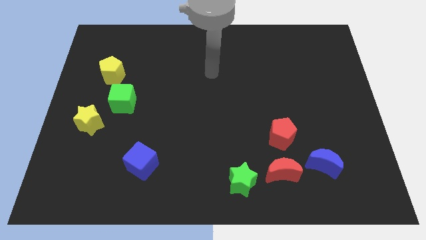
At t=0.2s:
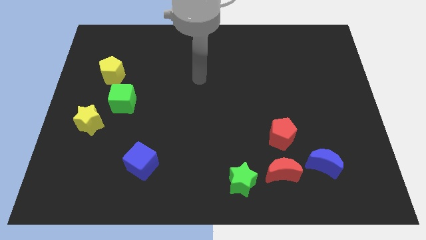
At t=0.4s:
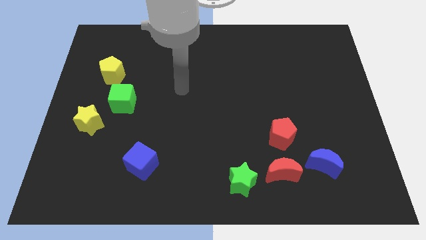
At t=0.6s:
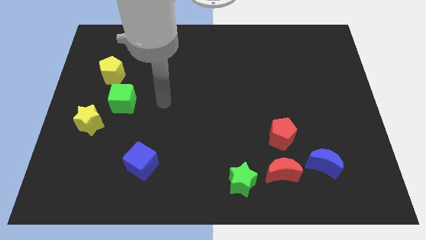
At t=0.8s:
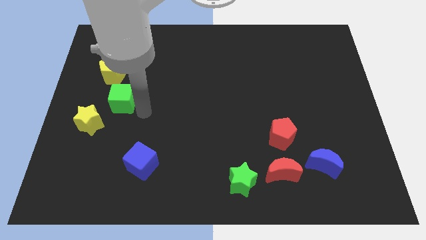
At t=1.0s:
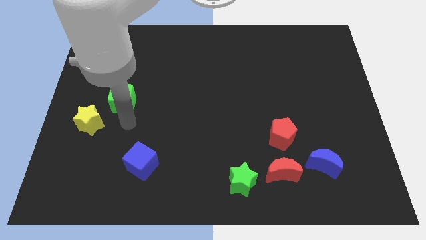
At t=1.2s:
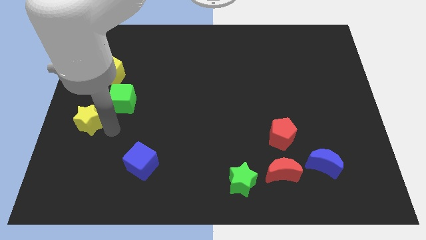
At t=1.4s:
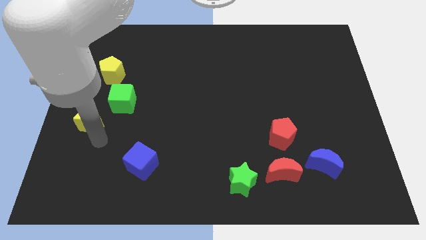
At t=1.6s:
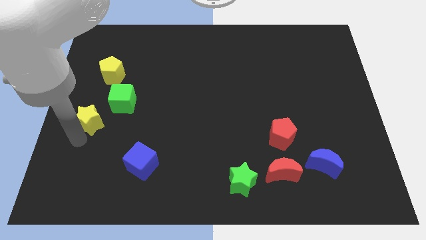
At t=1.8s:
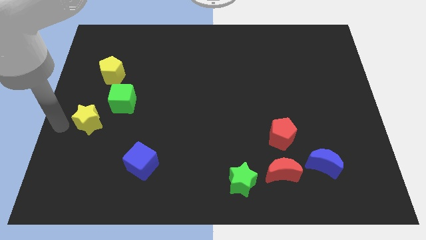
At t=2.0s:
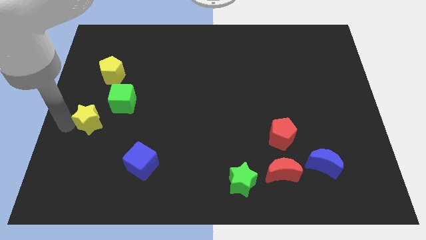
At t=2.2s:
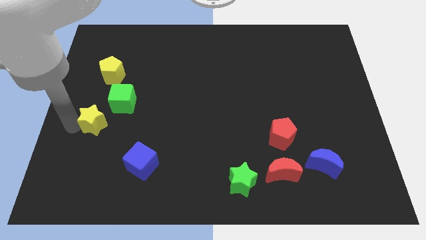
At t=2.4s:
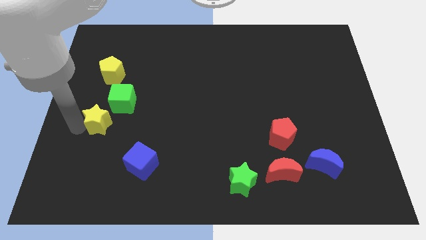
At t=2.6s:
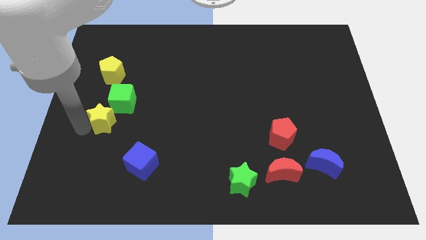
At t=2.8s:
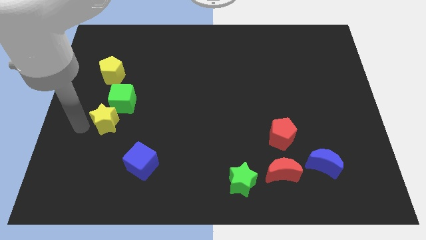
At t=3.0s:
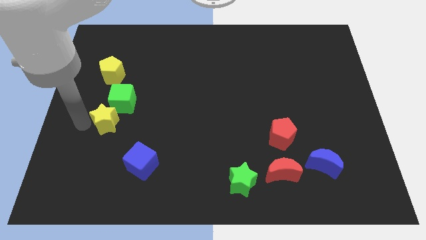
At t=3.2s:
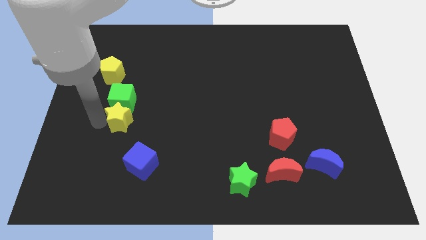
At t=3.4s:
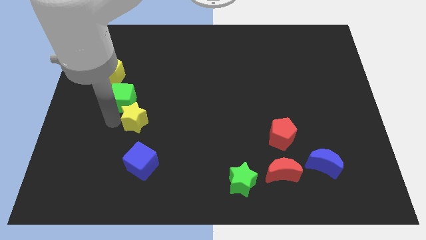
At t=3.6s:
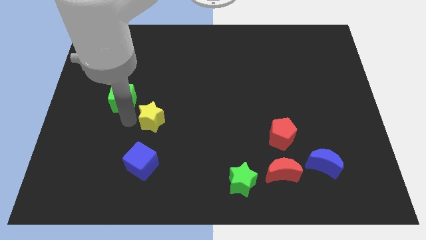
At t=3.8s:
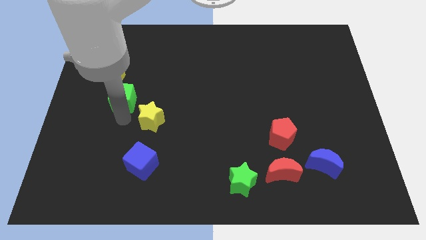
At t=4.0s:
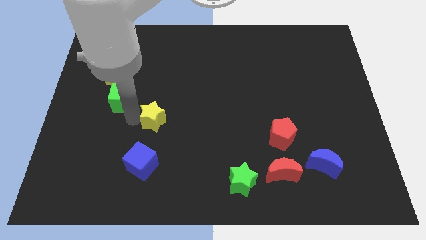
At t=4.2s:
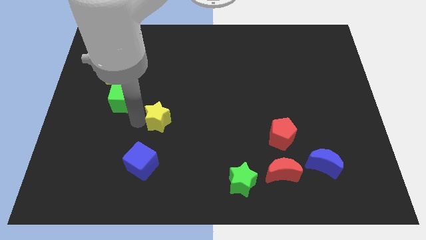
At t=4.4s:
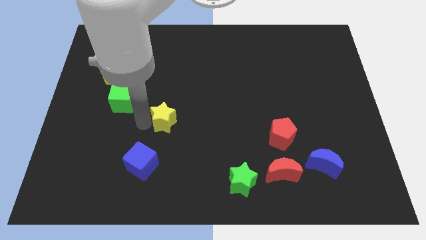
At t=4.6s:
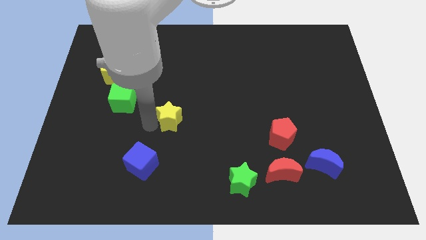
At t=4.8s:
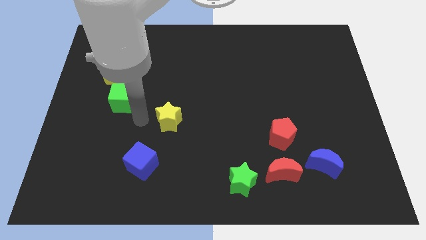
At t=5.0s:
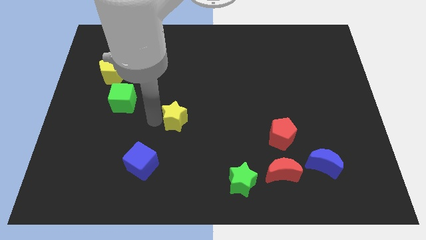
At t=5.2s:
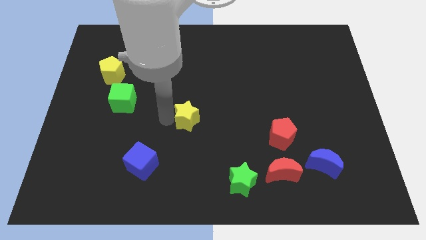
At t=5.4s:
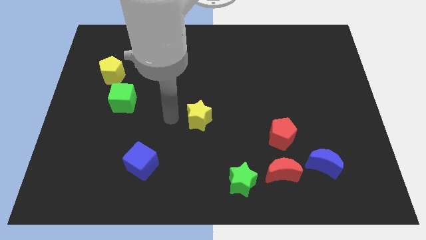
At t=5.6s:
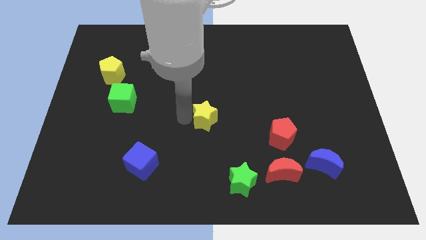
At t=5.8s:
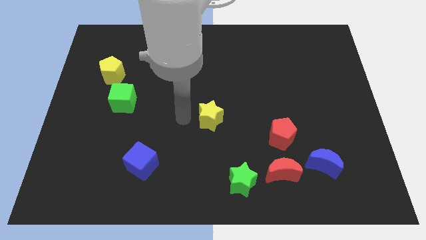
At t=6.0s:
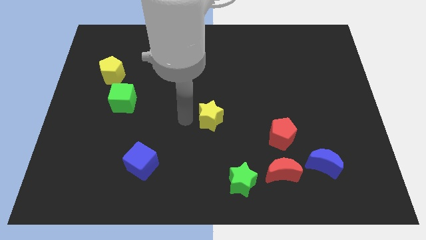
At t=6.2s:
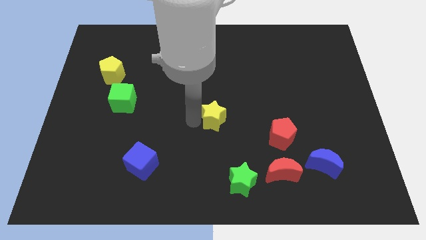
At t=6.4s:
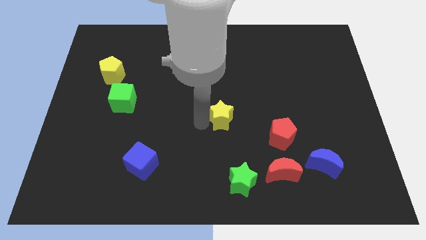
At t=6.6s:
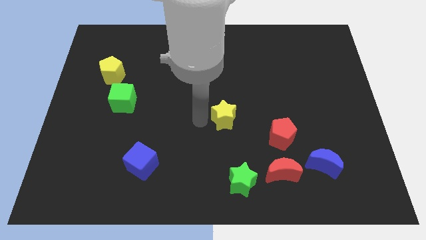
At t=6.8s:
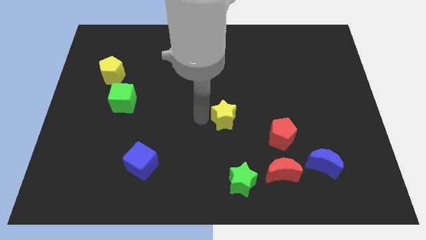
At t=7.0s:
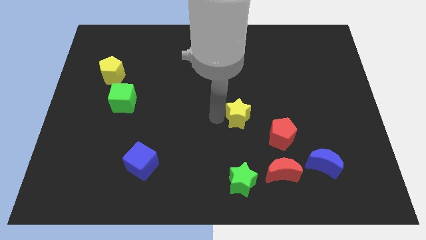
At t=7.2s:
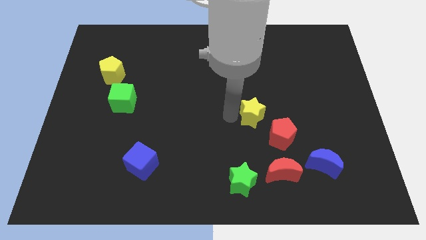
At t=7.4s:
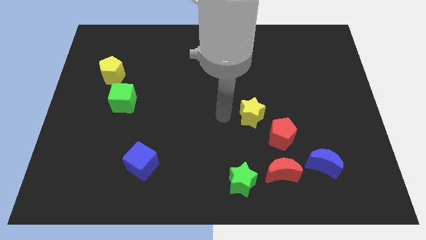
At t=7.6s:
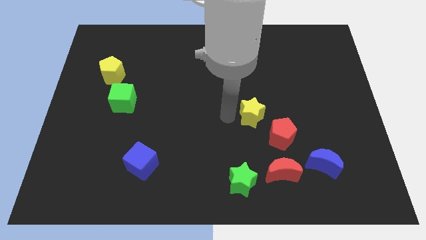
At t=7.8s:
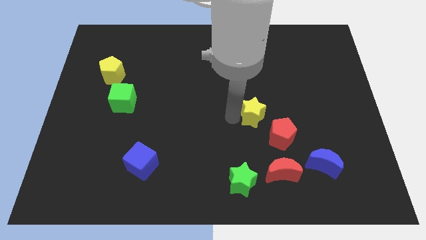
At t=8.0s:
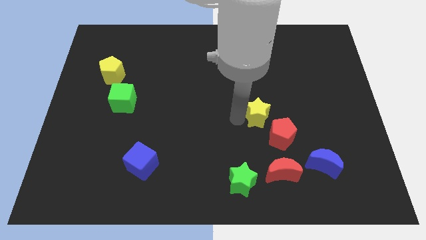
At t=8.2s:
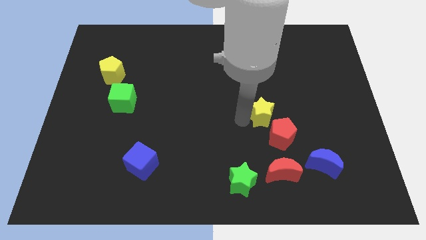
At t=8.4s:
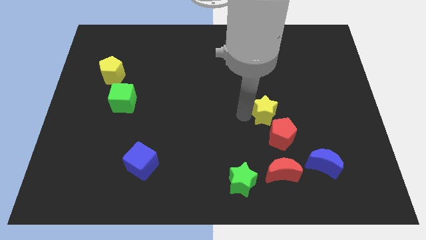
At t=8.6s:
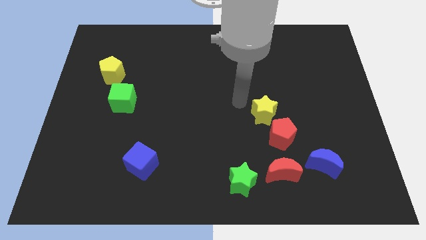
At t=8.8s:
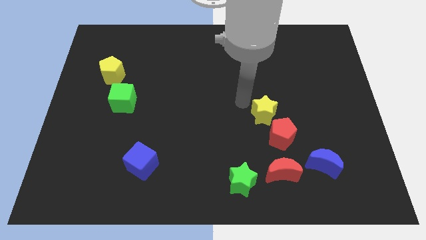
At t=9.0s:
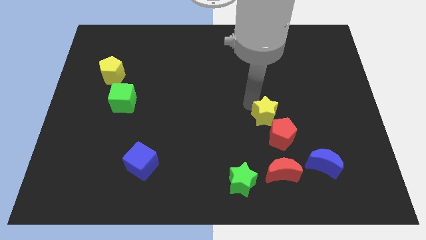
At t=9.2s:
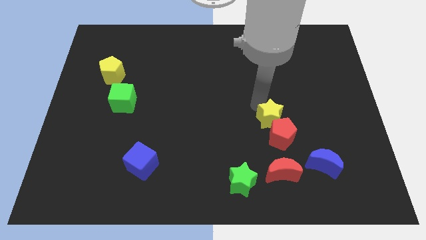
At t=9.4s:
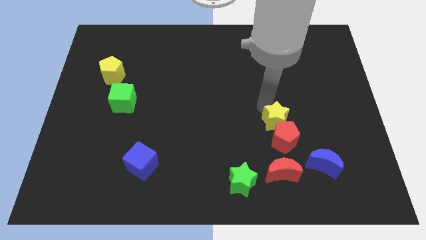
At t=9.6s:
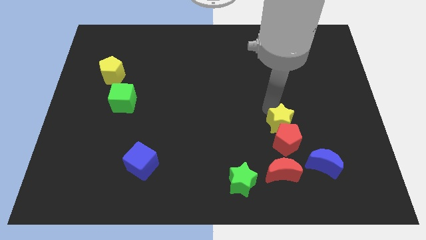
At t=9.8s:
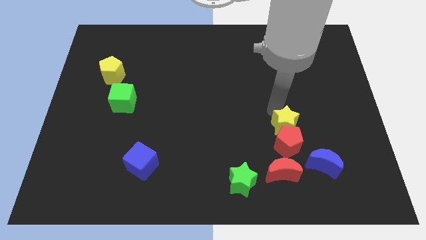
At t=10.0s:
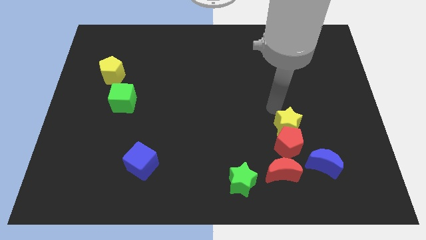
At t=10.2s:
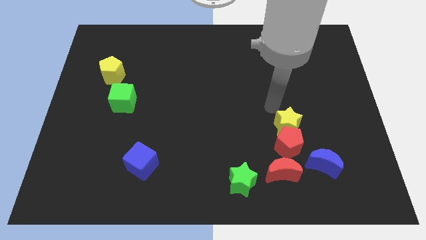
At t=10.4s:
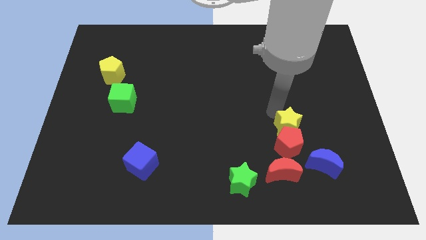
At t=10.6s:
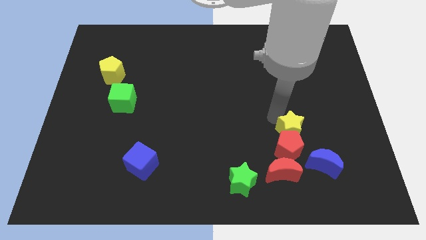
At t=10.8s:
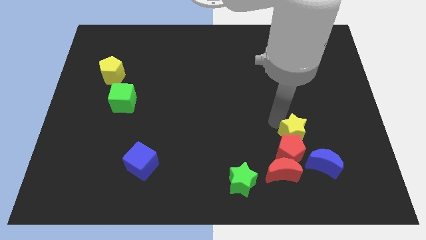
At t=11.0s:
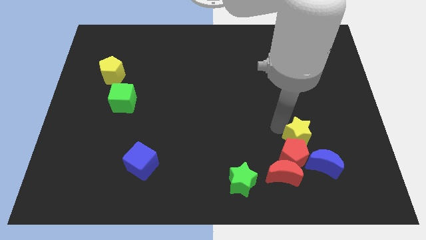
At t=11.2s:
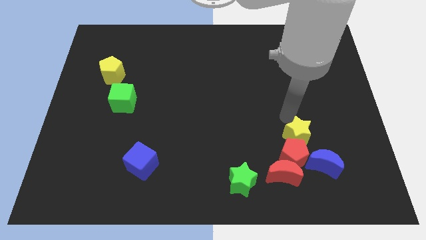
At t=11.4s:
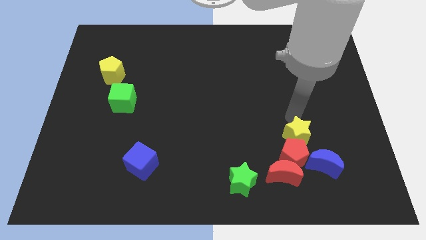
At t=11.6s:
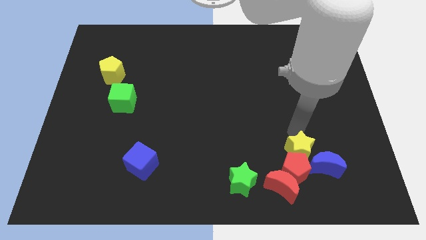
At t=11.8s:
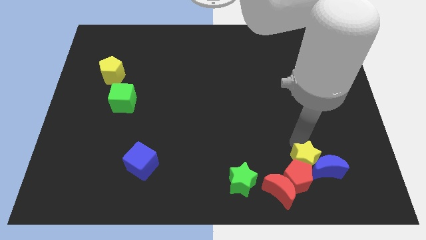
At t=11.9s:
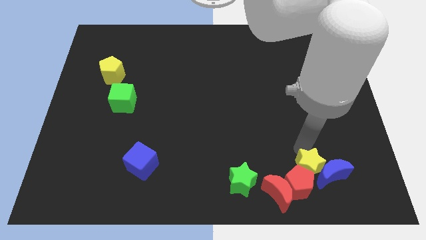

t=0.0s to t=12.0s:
push the yellow star right of the green star

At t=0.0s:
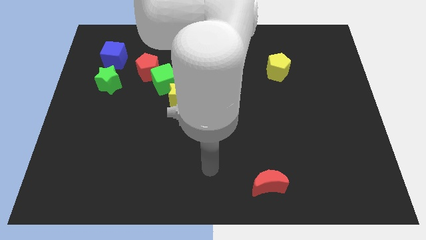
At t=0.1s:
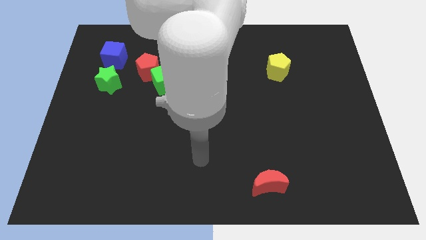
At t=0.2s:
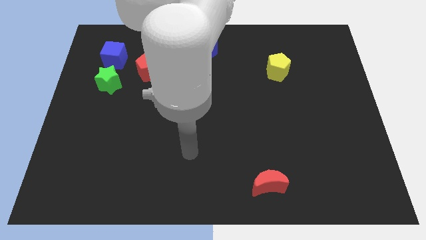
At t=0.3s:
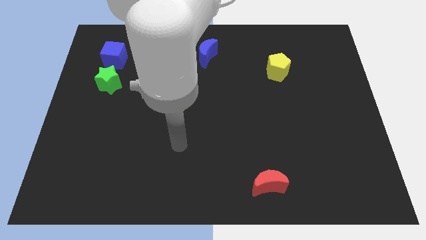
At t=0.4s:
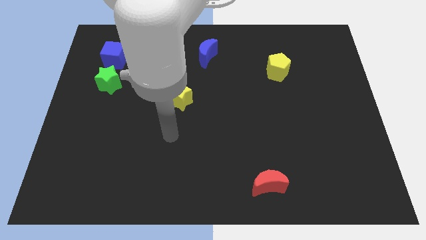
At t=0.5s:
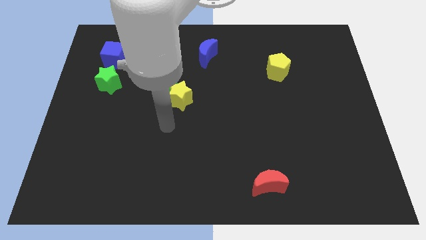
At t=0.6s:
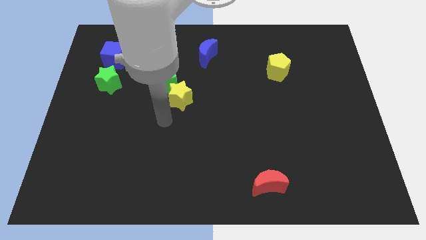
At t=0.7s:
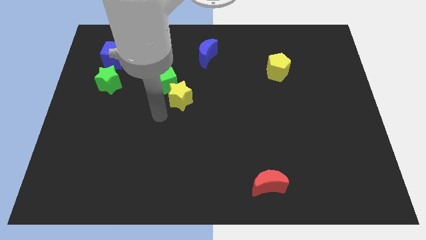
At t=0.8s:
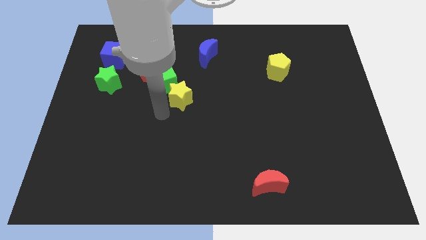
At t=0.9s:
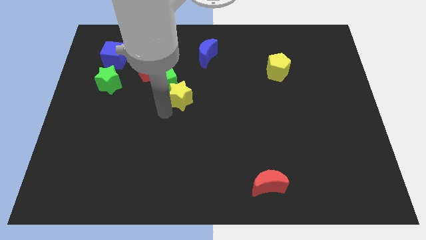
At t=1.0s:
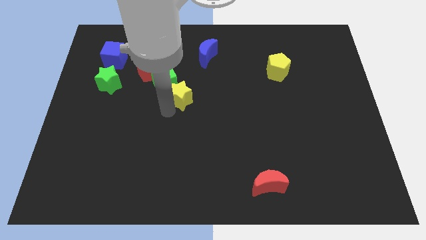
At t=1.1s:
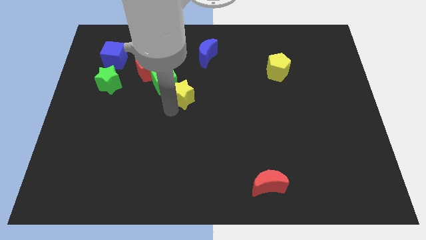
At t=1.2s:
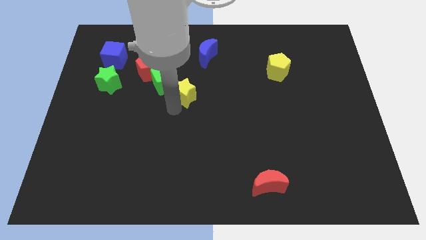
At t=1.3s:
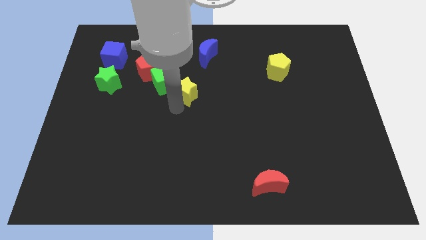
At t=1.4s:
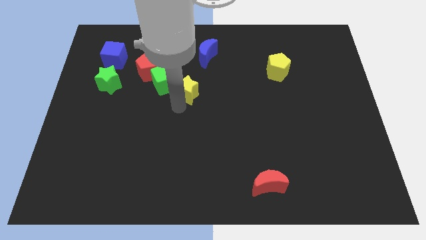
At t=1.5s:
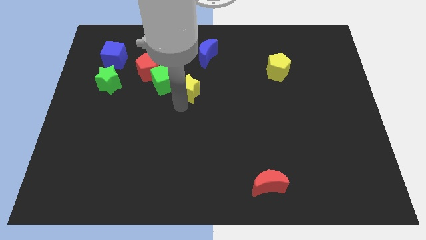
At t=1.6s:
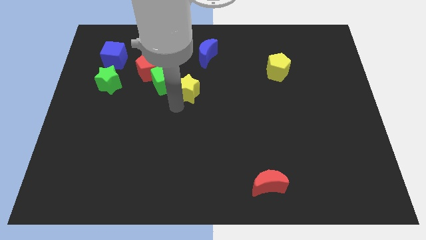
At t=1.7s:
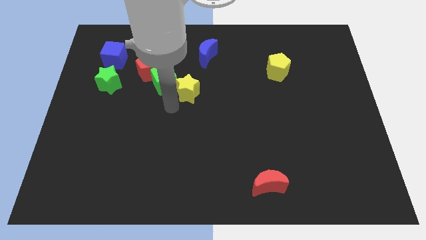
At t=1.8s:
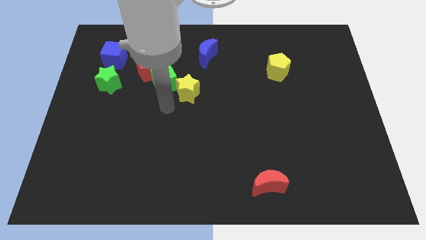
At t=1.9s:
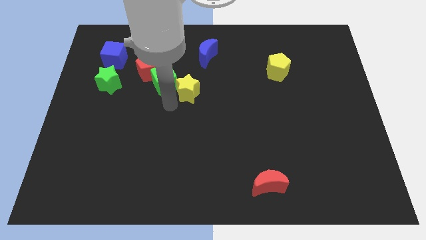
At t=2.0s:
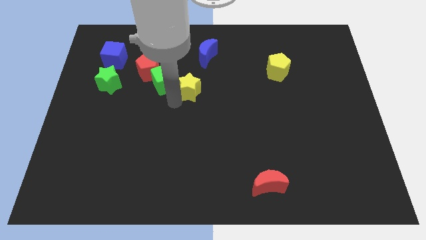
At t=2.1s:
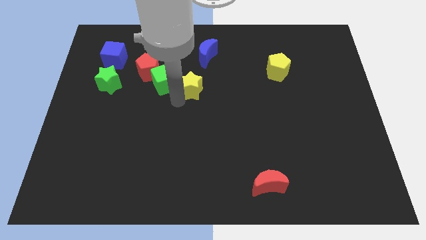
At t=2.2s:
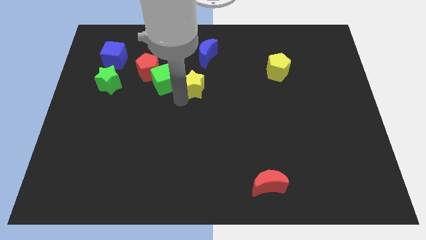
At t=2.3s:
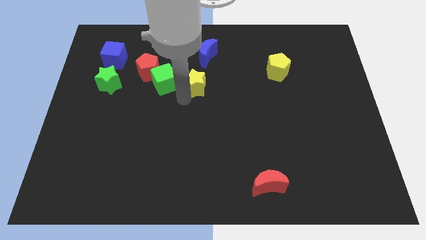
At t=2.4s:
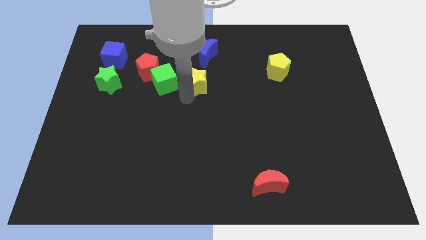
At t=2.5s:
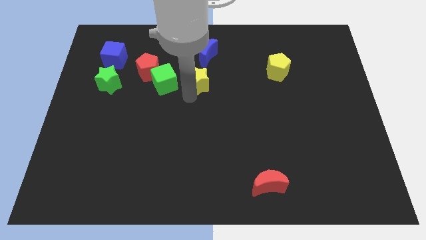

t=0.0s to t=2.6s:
move the yellow star just right of the red pentagon
